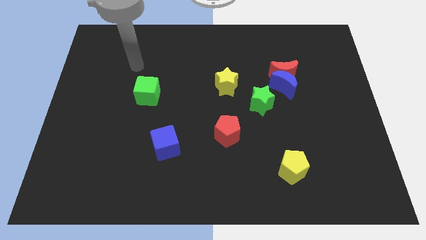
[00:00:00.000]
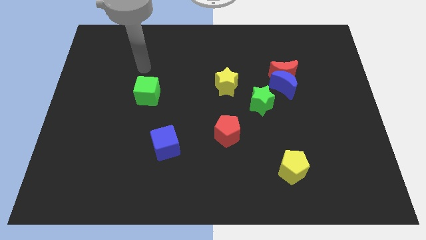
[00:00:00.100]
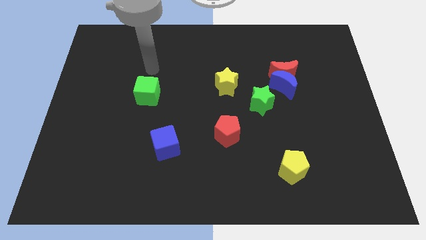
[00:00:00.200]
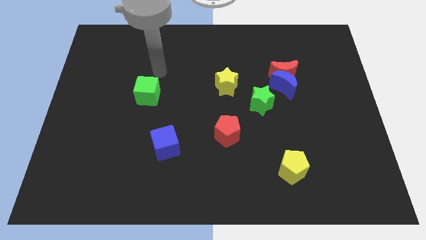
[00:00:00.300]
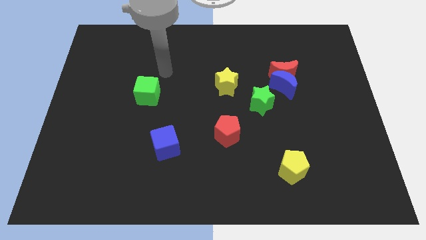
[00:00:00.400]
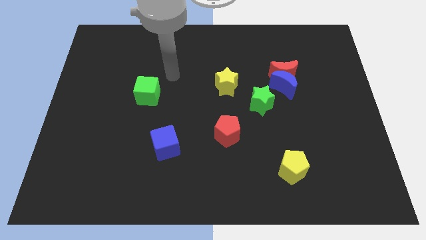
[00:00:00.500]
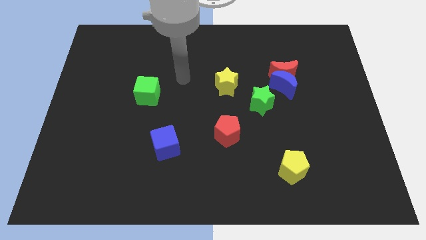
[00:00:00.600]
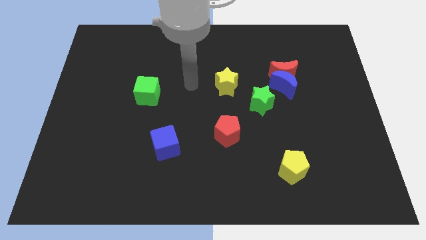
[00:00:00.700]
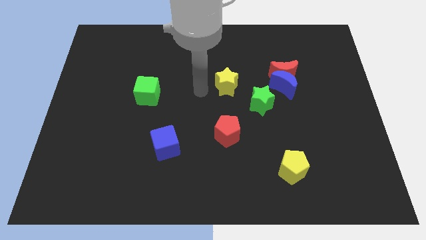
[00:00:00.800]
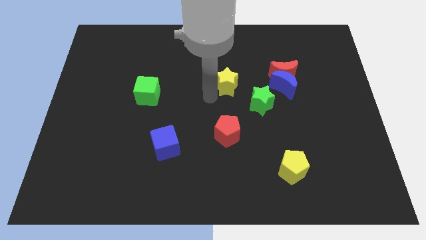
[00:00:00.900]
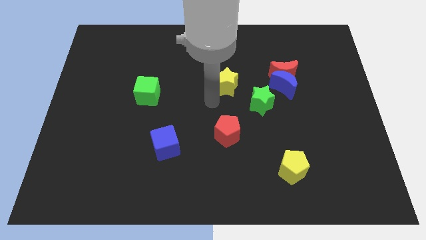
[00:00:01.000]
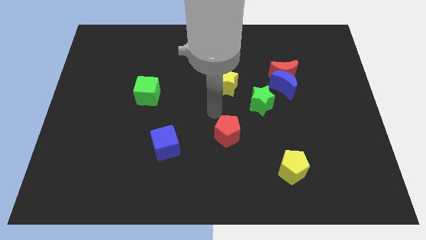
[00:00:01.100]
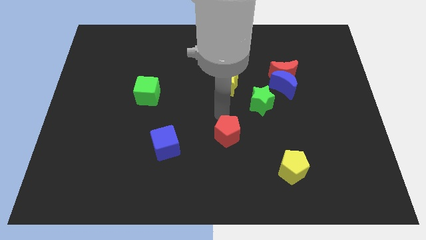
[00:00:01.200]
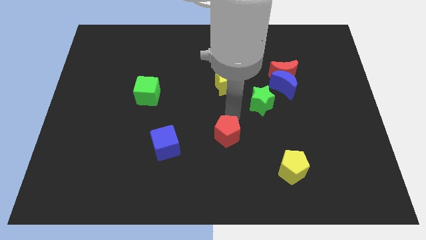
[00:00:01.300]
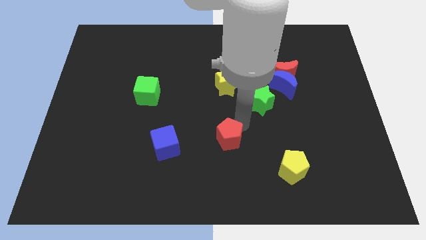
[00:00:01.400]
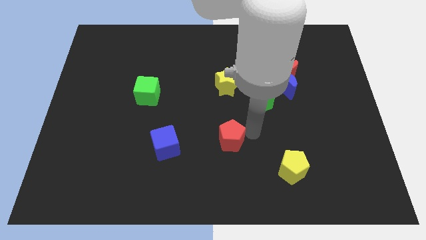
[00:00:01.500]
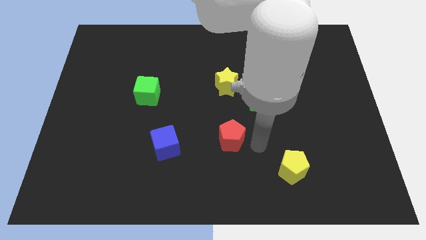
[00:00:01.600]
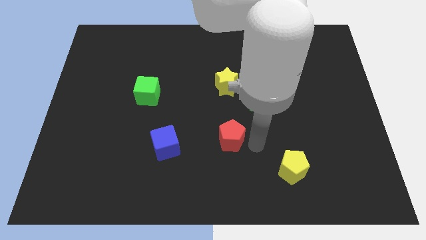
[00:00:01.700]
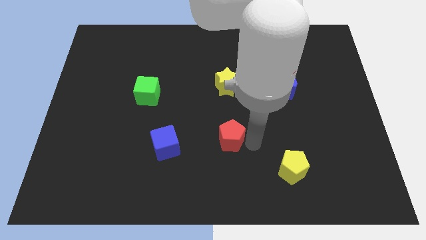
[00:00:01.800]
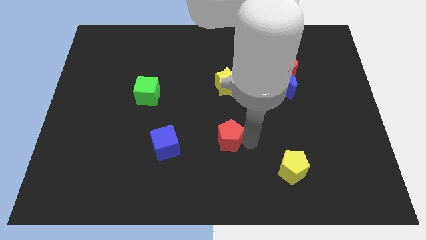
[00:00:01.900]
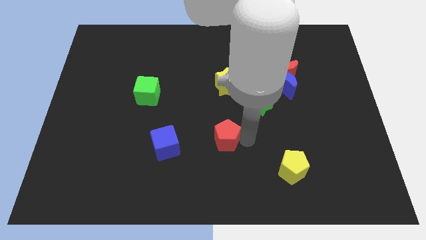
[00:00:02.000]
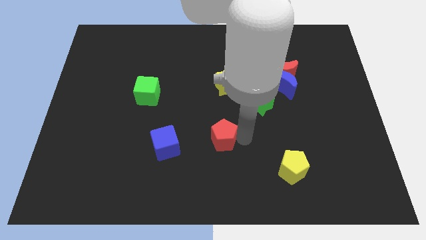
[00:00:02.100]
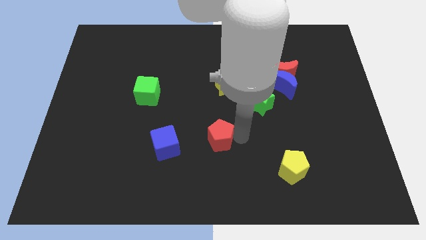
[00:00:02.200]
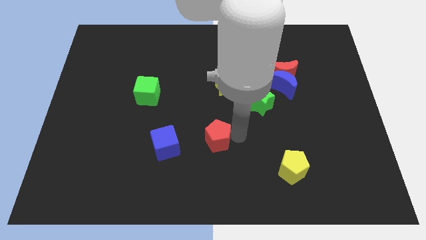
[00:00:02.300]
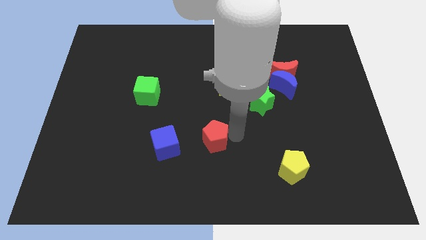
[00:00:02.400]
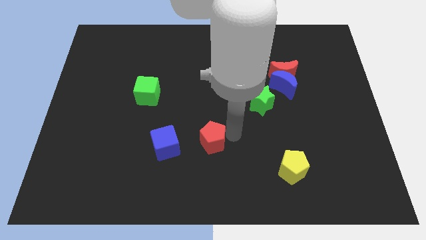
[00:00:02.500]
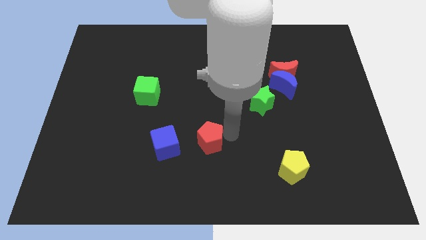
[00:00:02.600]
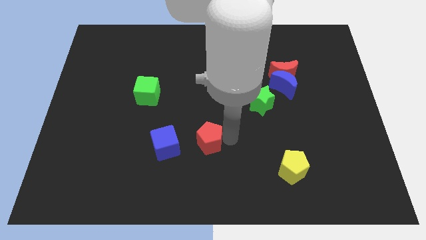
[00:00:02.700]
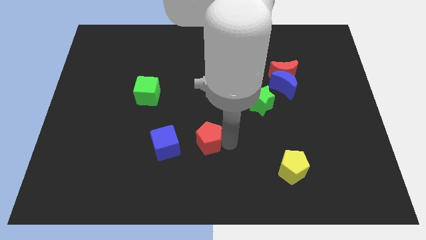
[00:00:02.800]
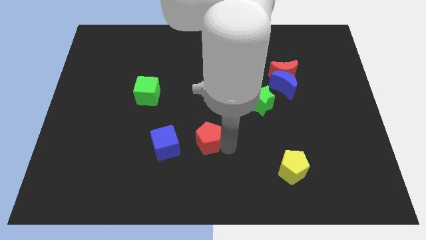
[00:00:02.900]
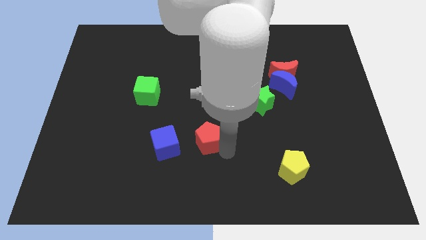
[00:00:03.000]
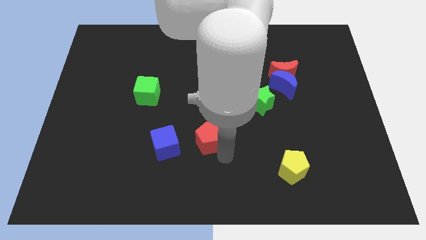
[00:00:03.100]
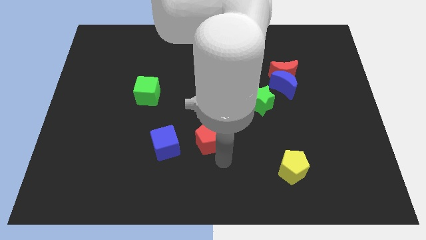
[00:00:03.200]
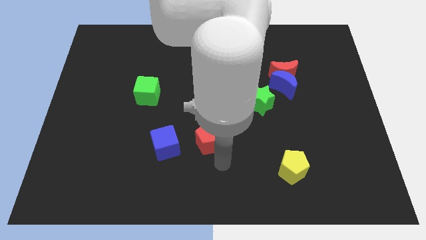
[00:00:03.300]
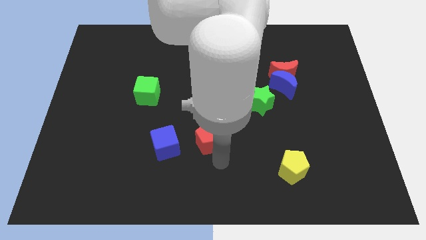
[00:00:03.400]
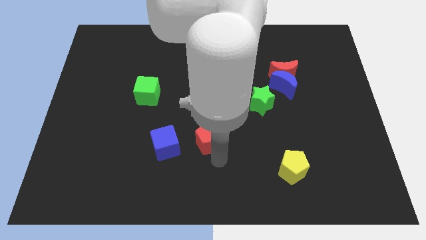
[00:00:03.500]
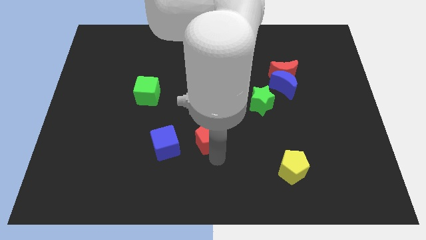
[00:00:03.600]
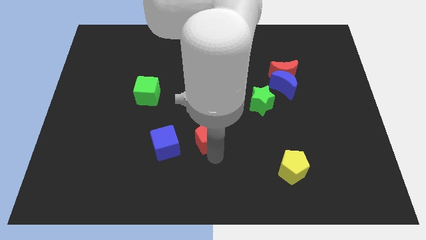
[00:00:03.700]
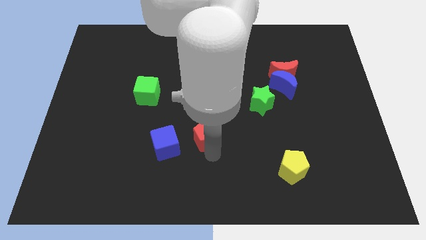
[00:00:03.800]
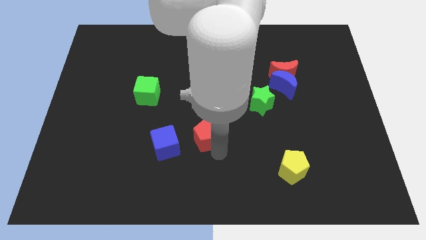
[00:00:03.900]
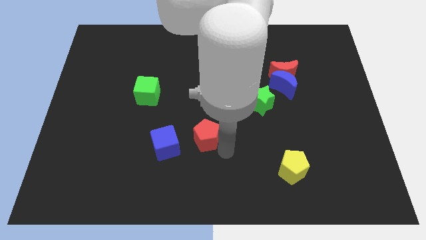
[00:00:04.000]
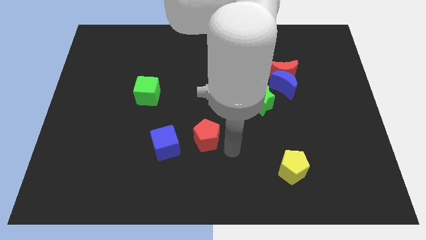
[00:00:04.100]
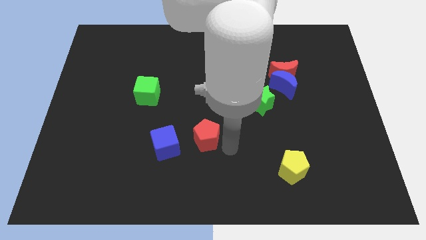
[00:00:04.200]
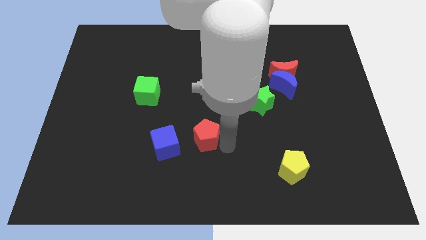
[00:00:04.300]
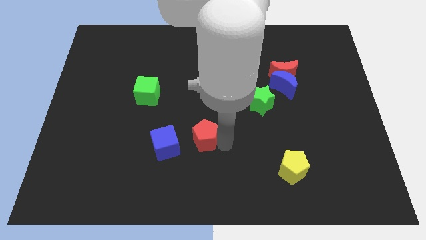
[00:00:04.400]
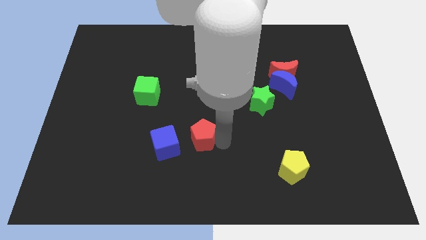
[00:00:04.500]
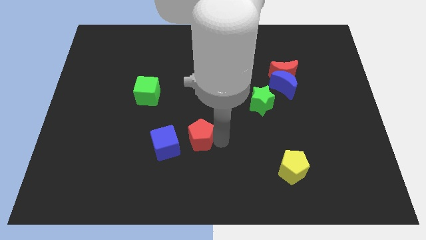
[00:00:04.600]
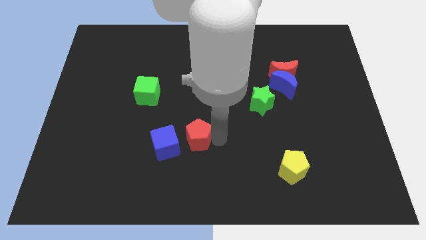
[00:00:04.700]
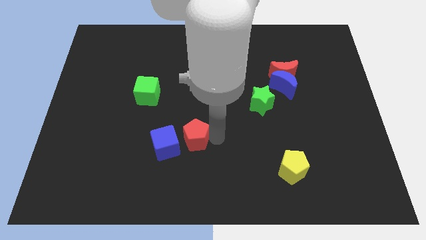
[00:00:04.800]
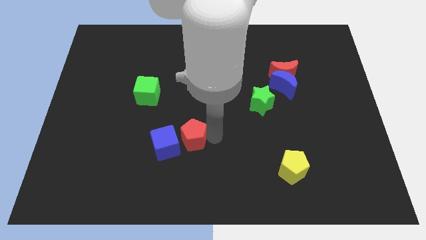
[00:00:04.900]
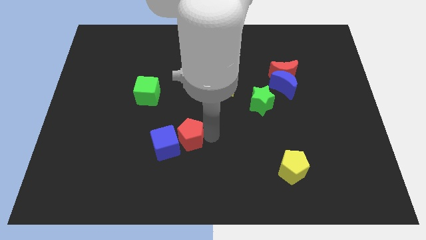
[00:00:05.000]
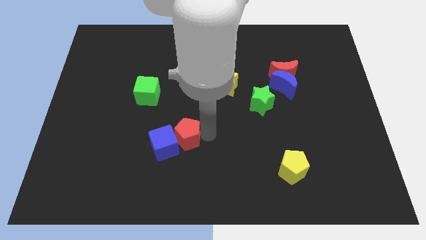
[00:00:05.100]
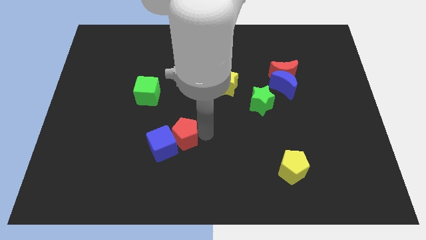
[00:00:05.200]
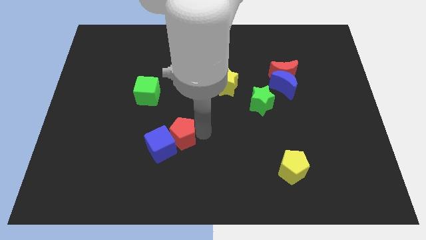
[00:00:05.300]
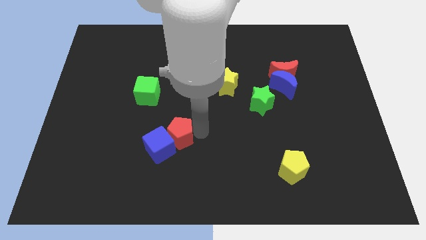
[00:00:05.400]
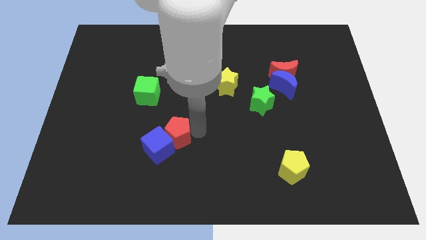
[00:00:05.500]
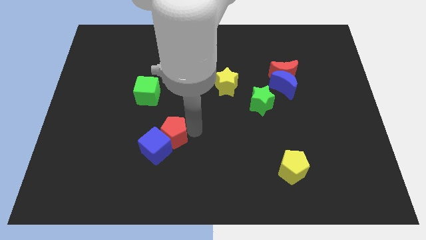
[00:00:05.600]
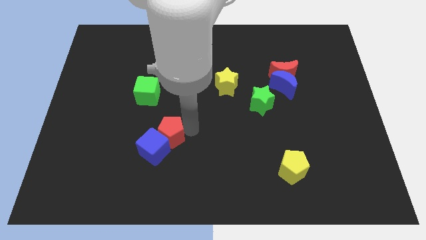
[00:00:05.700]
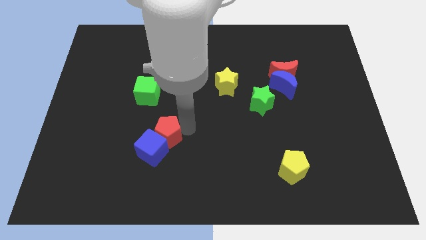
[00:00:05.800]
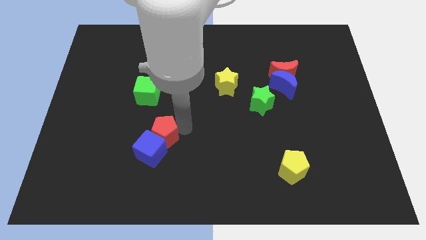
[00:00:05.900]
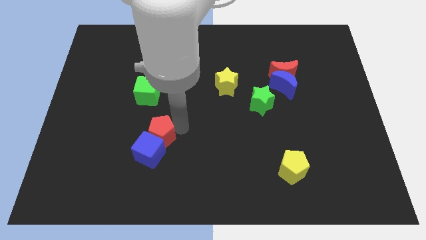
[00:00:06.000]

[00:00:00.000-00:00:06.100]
put the red pentagon below the green cube

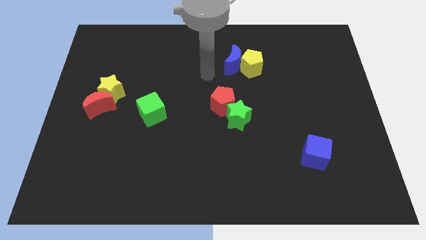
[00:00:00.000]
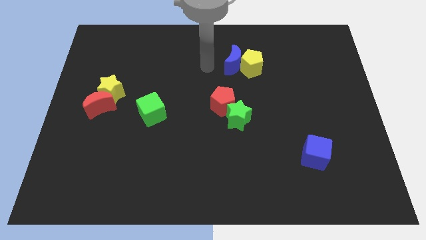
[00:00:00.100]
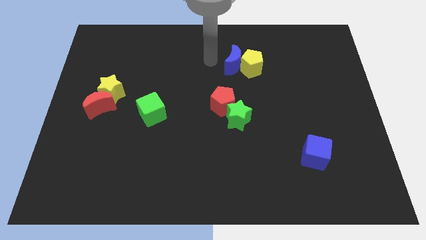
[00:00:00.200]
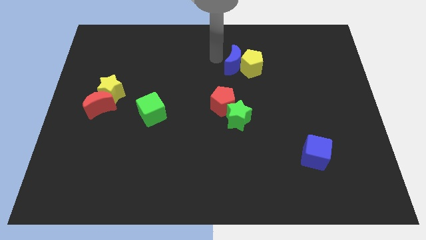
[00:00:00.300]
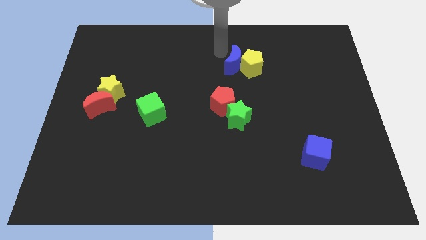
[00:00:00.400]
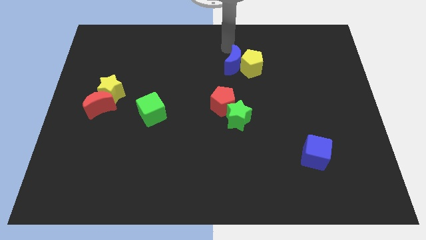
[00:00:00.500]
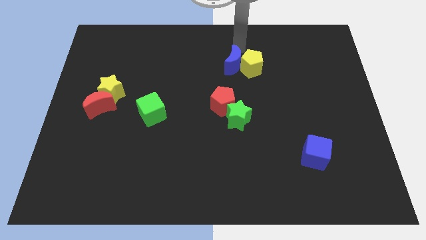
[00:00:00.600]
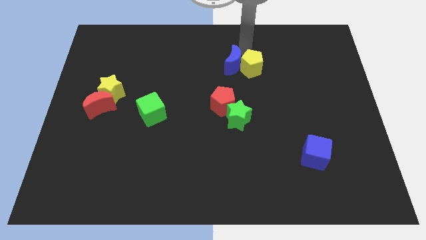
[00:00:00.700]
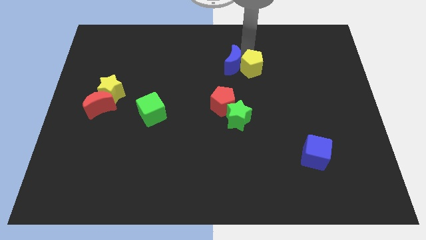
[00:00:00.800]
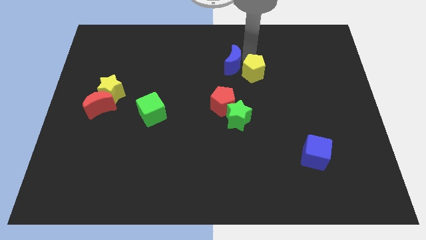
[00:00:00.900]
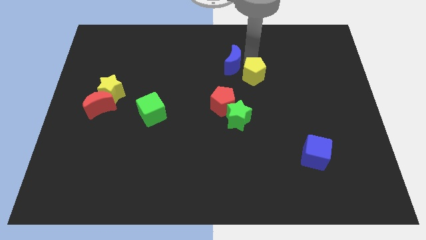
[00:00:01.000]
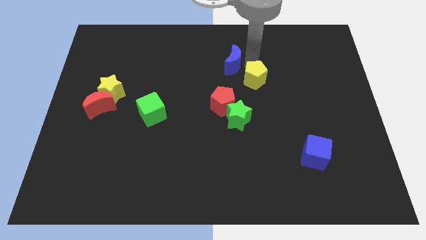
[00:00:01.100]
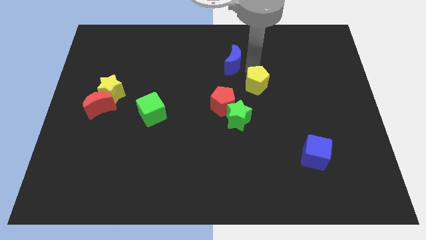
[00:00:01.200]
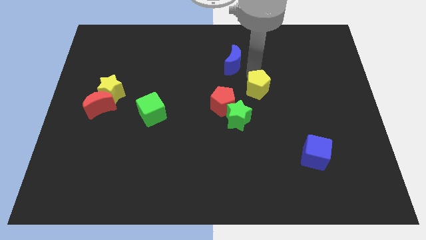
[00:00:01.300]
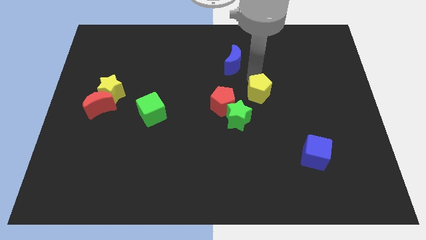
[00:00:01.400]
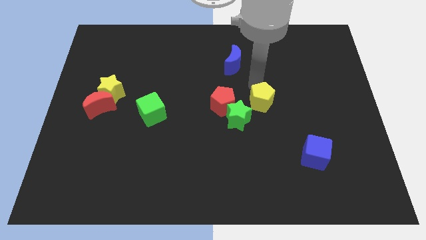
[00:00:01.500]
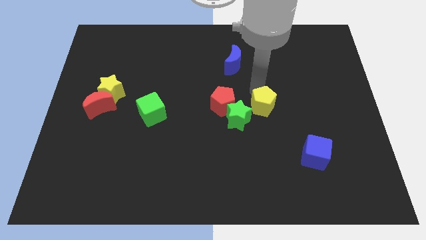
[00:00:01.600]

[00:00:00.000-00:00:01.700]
slide the yellow pentagon to the right of the green star
